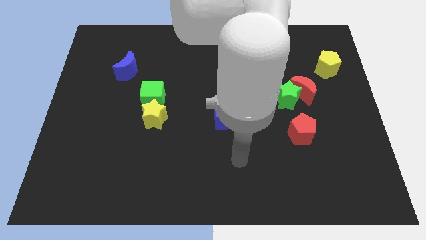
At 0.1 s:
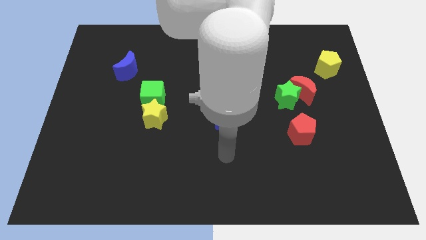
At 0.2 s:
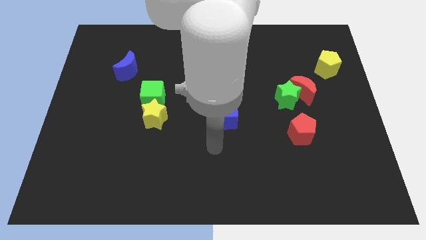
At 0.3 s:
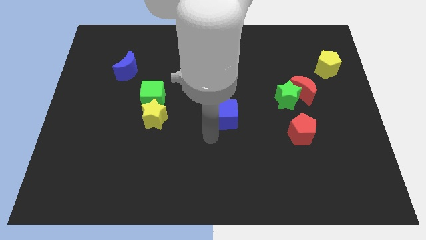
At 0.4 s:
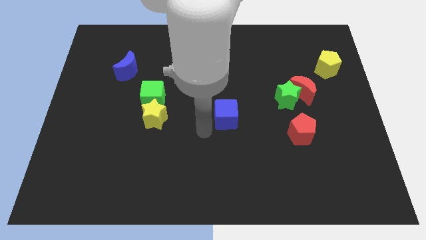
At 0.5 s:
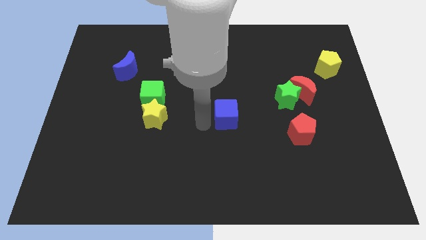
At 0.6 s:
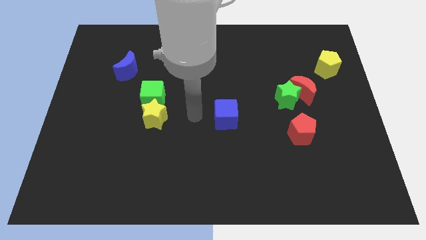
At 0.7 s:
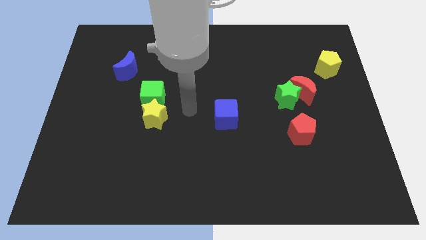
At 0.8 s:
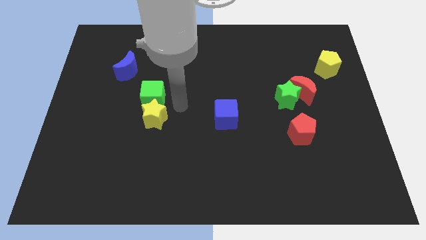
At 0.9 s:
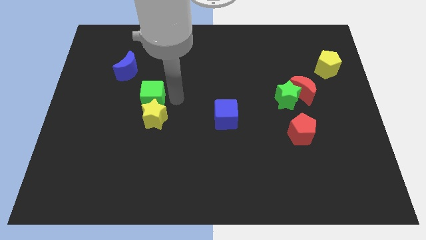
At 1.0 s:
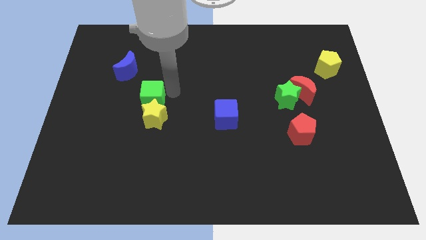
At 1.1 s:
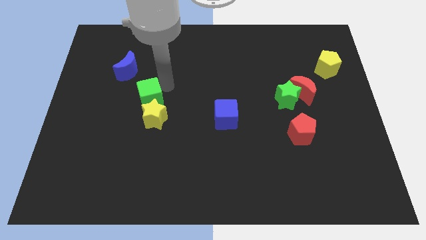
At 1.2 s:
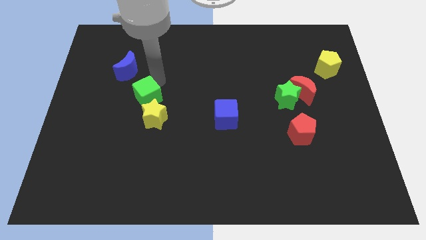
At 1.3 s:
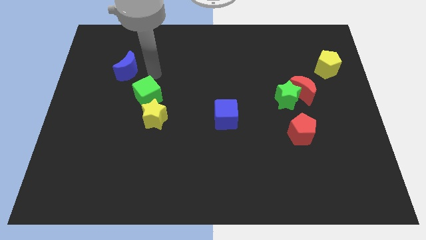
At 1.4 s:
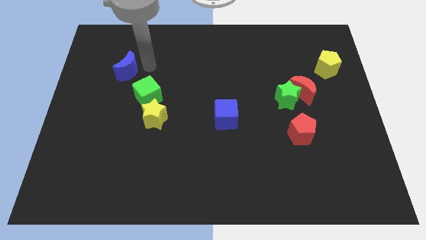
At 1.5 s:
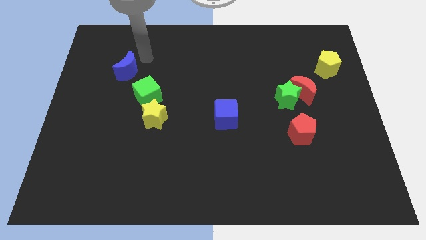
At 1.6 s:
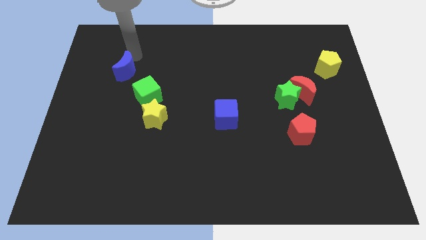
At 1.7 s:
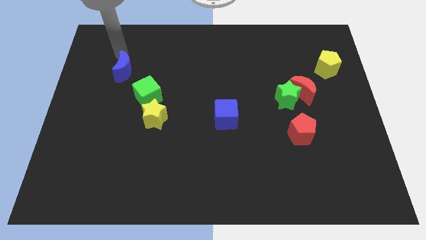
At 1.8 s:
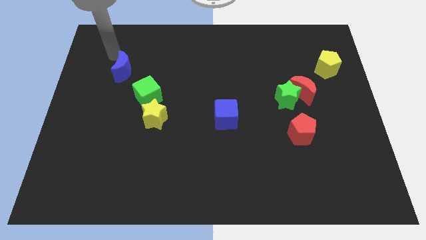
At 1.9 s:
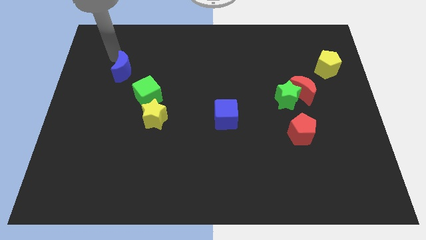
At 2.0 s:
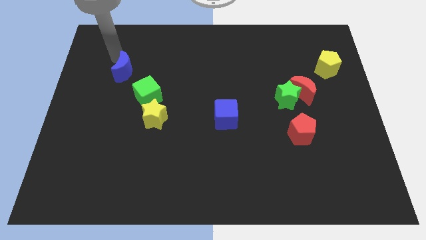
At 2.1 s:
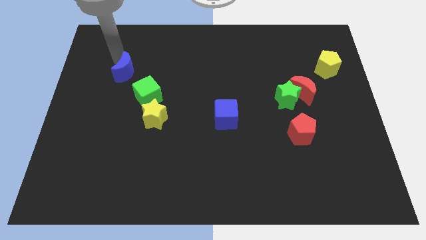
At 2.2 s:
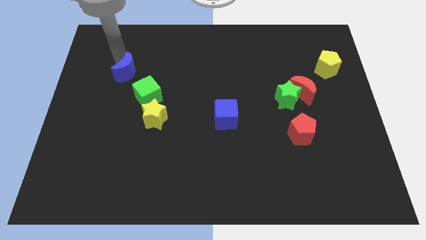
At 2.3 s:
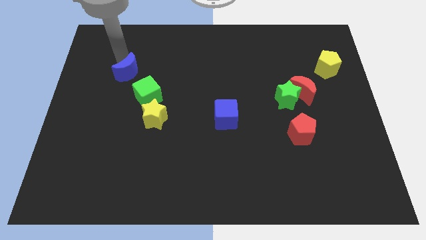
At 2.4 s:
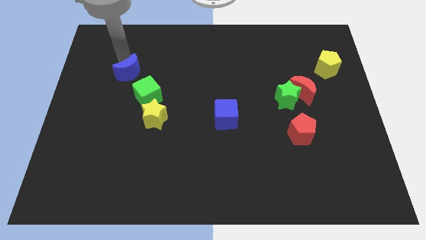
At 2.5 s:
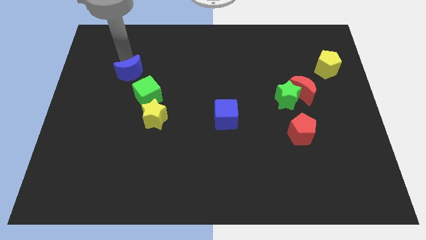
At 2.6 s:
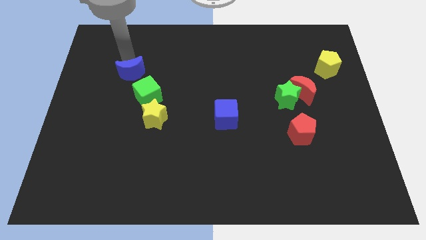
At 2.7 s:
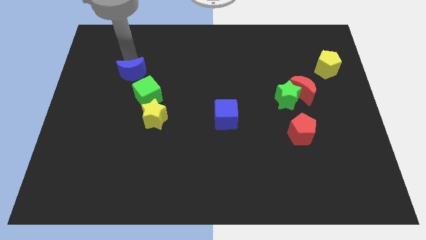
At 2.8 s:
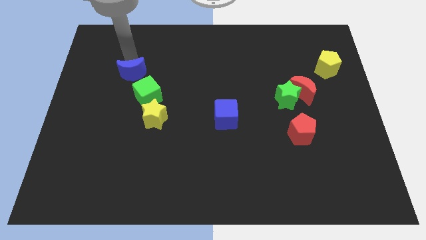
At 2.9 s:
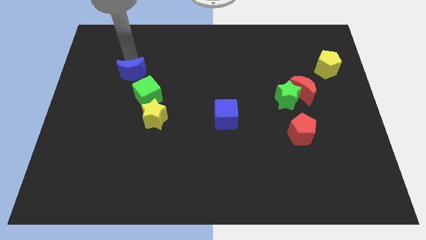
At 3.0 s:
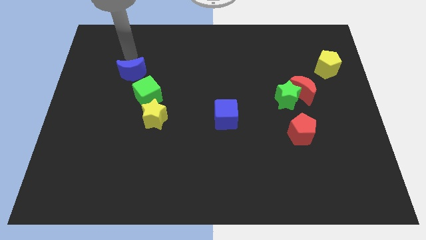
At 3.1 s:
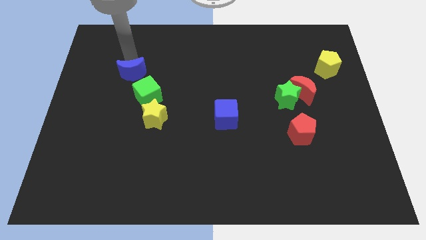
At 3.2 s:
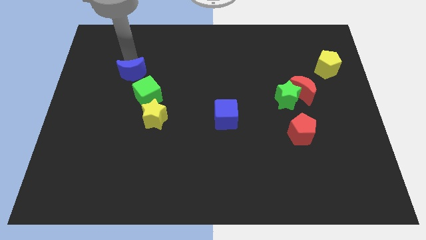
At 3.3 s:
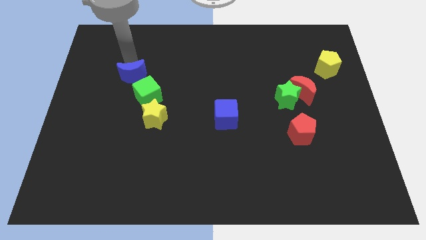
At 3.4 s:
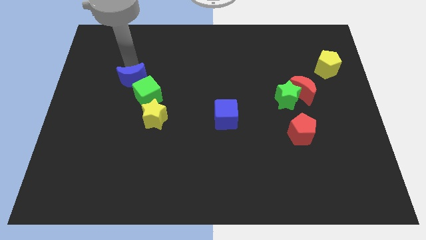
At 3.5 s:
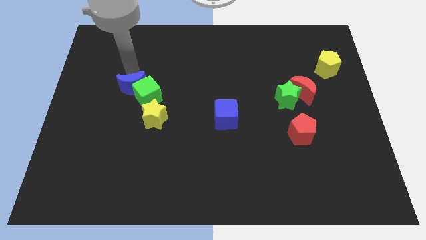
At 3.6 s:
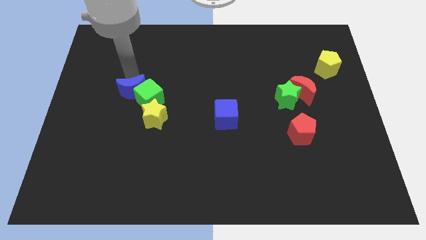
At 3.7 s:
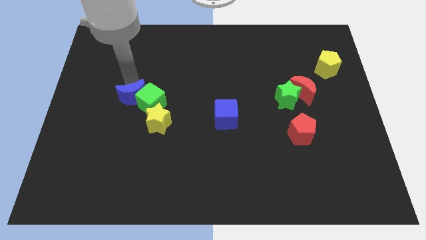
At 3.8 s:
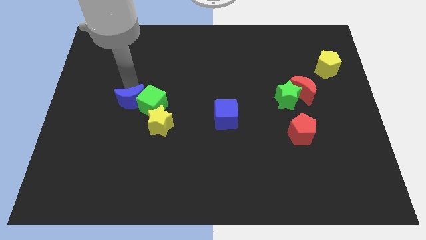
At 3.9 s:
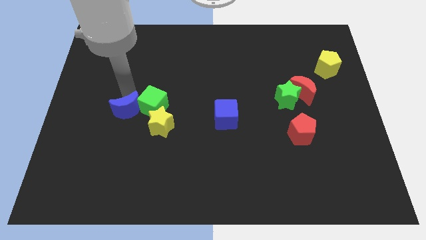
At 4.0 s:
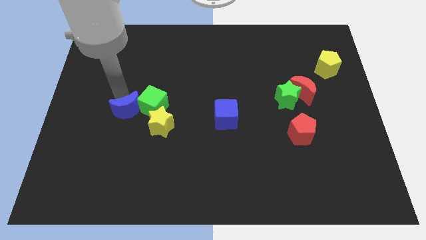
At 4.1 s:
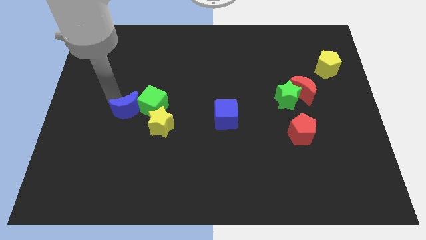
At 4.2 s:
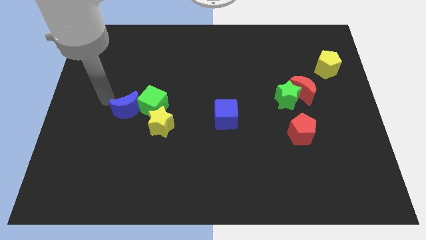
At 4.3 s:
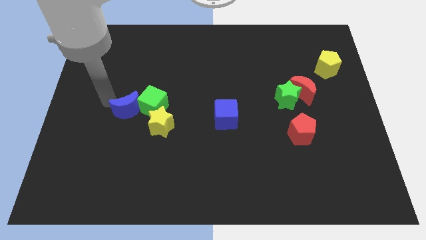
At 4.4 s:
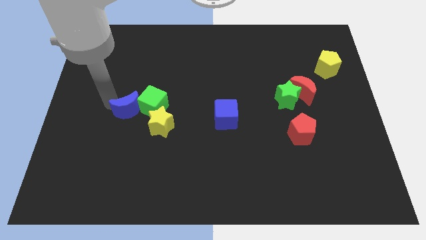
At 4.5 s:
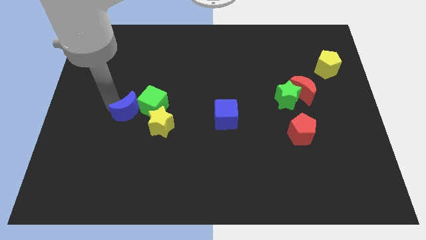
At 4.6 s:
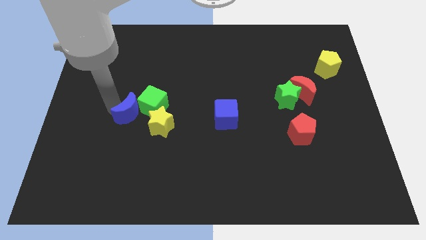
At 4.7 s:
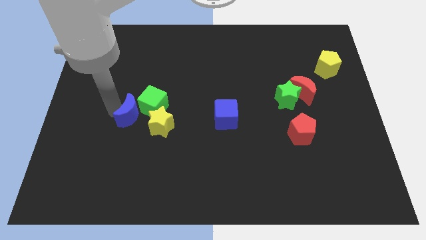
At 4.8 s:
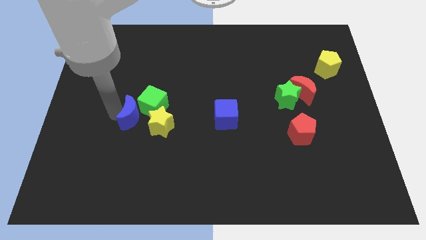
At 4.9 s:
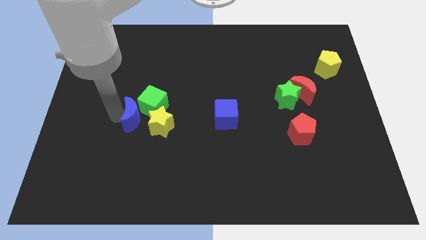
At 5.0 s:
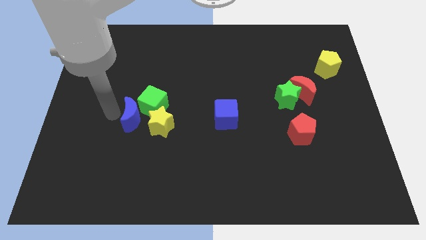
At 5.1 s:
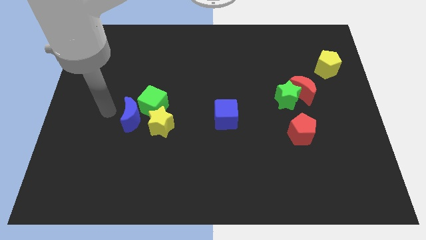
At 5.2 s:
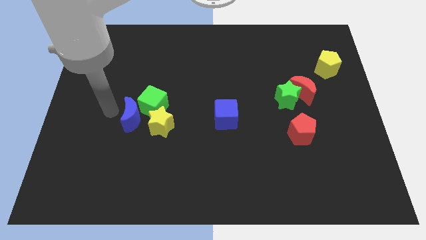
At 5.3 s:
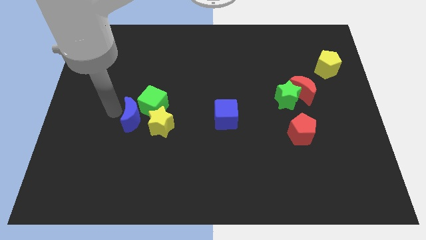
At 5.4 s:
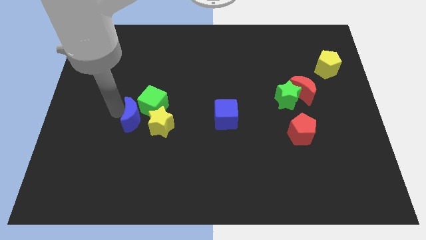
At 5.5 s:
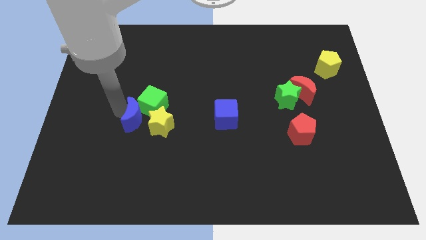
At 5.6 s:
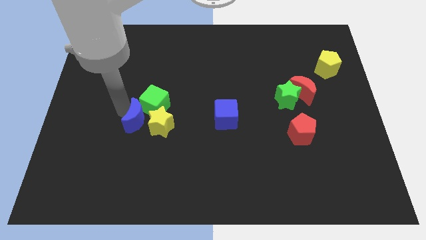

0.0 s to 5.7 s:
slide the blue moon to the yellow star

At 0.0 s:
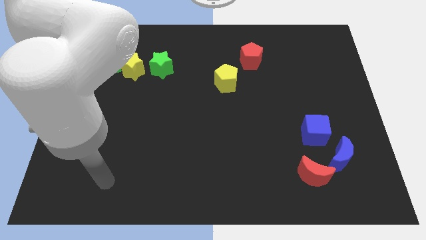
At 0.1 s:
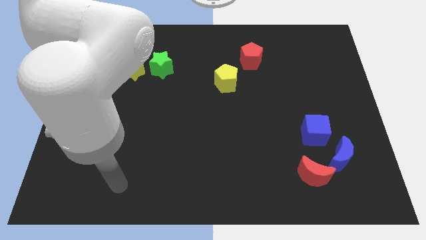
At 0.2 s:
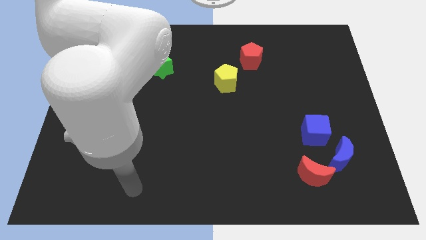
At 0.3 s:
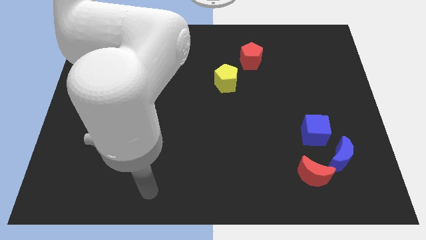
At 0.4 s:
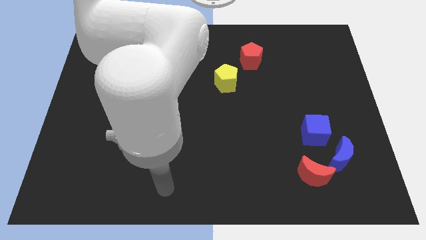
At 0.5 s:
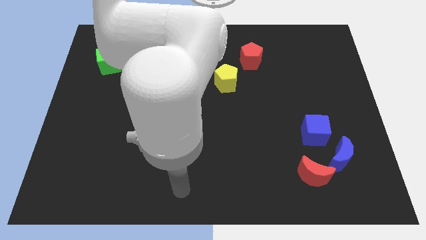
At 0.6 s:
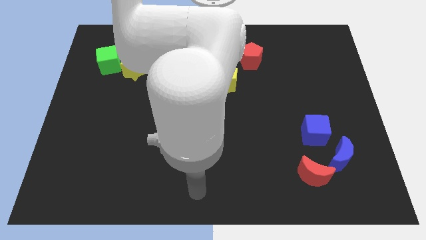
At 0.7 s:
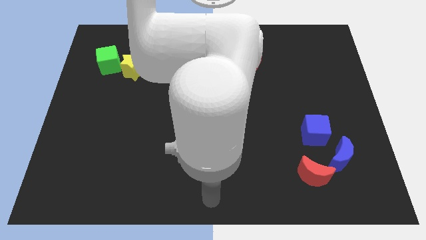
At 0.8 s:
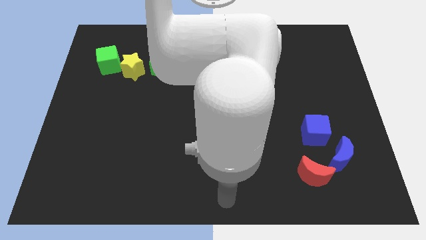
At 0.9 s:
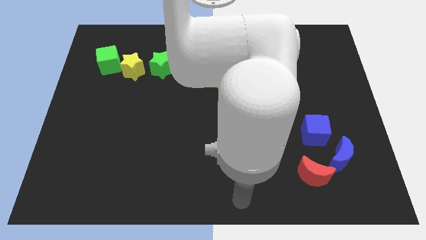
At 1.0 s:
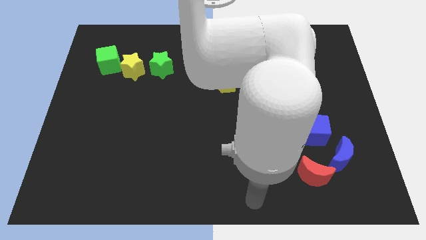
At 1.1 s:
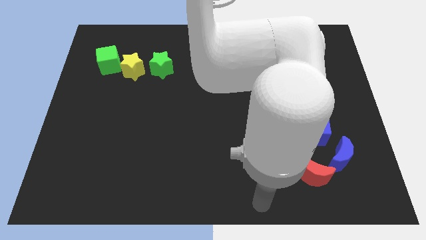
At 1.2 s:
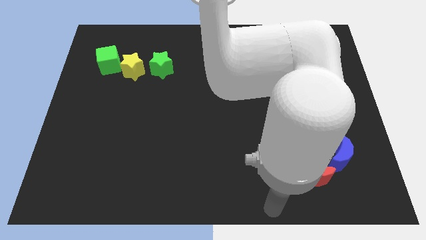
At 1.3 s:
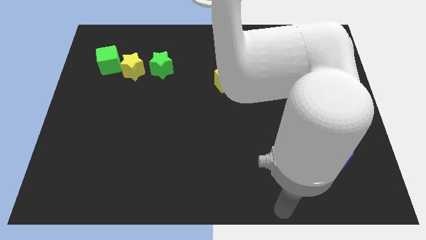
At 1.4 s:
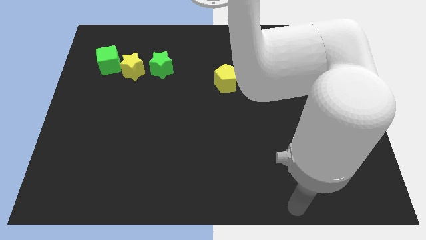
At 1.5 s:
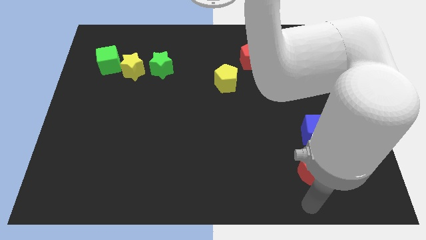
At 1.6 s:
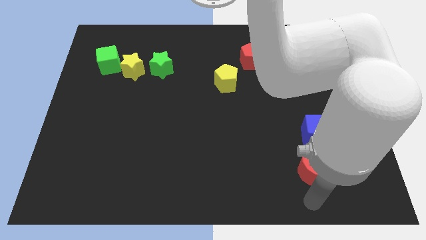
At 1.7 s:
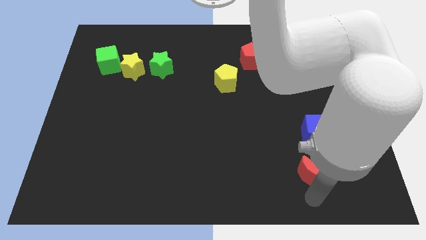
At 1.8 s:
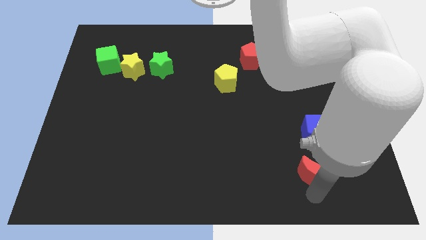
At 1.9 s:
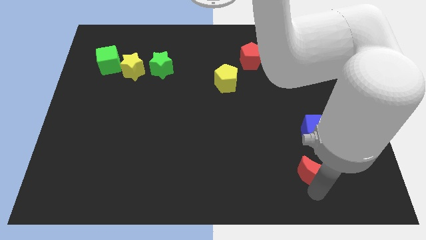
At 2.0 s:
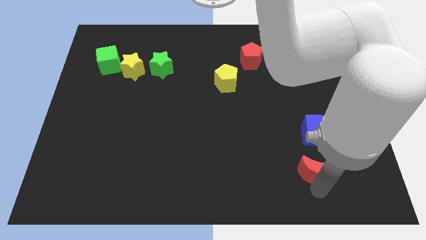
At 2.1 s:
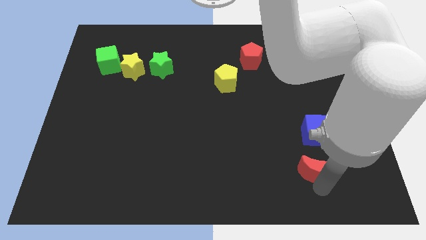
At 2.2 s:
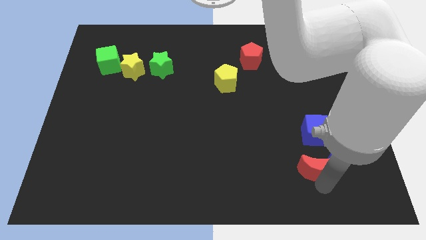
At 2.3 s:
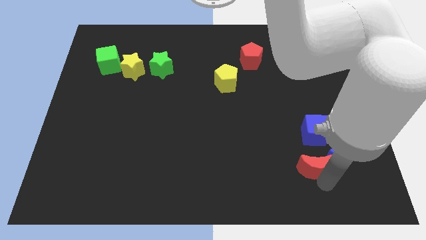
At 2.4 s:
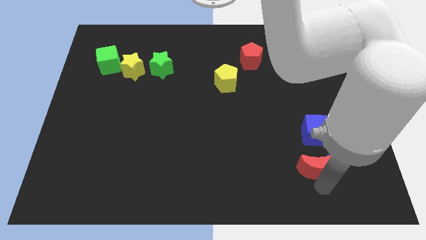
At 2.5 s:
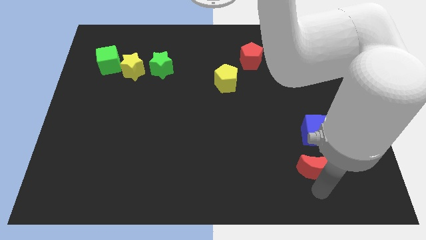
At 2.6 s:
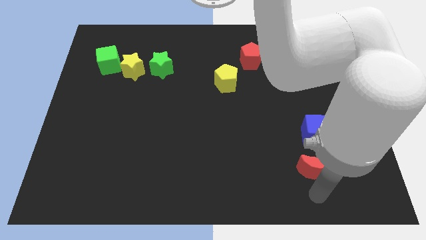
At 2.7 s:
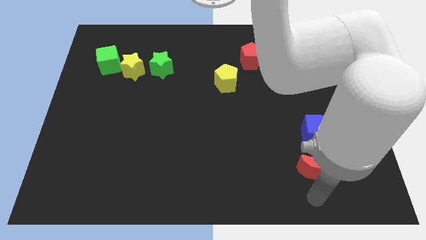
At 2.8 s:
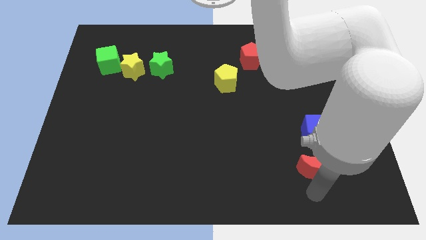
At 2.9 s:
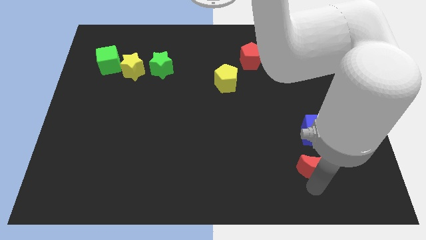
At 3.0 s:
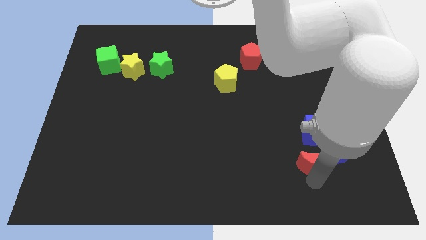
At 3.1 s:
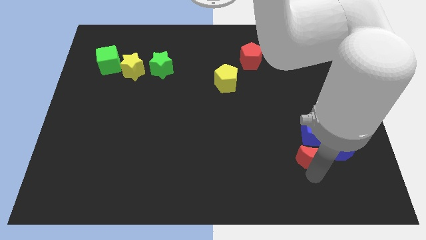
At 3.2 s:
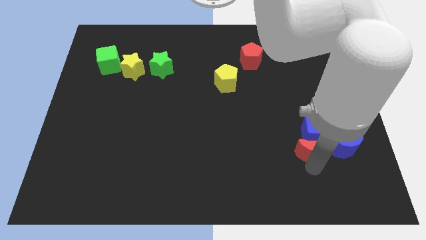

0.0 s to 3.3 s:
move the red moon close to the blue cube
